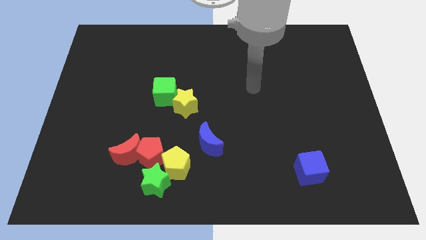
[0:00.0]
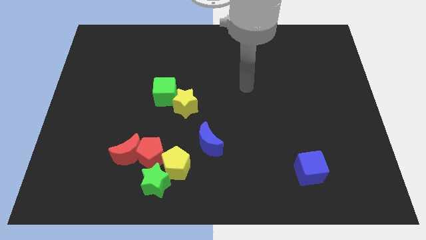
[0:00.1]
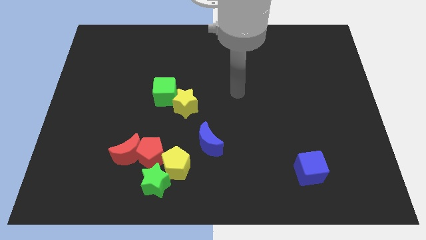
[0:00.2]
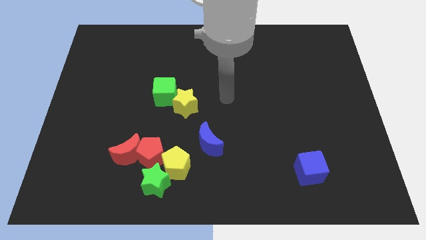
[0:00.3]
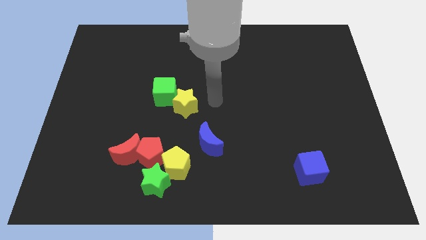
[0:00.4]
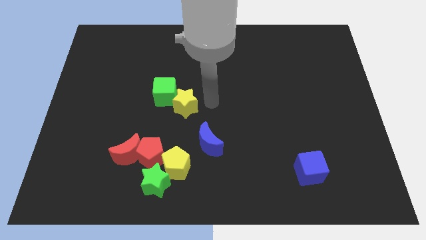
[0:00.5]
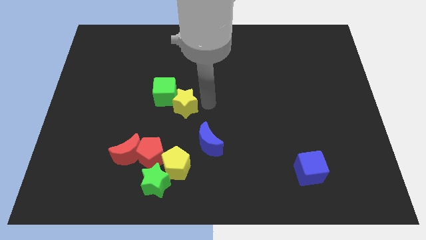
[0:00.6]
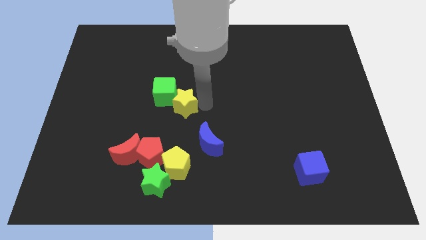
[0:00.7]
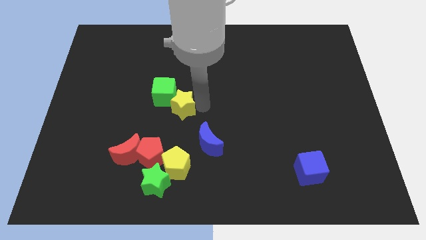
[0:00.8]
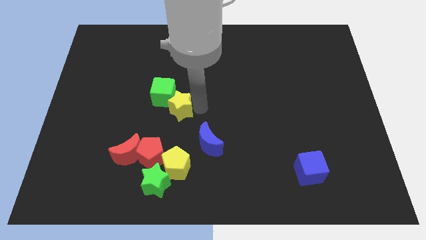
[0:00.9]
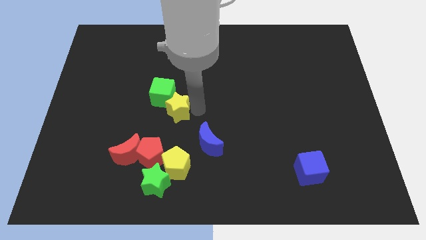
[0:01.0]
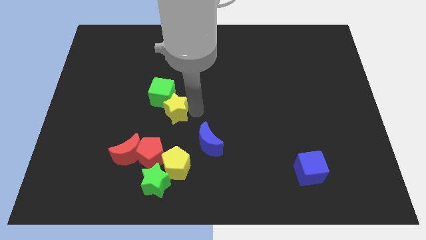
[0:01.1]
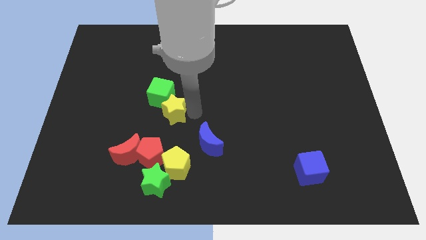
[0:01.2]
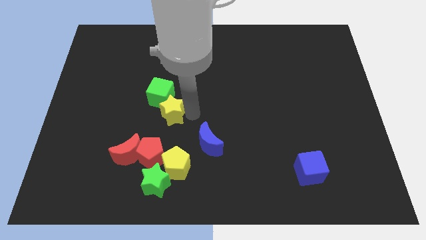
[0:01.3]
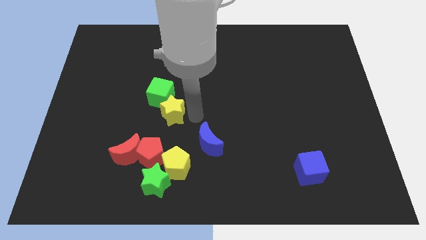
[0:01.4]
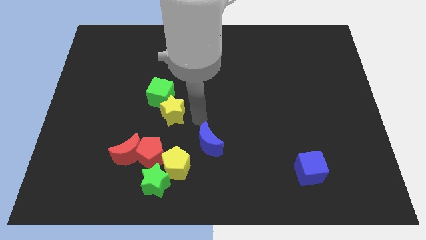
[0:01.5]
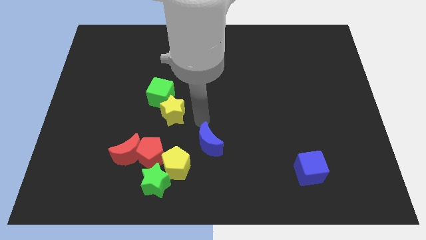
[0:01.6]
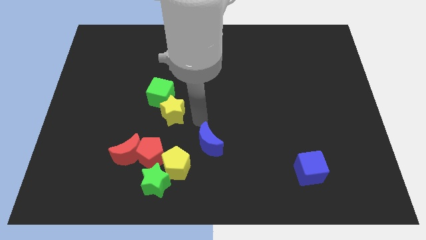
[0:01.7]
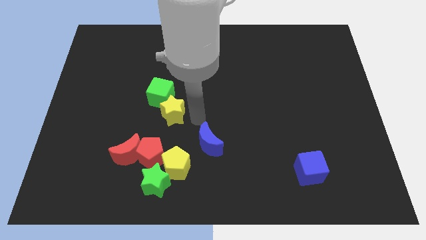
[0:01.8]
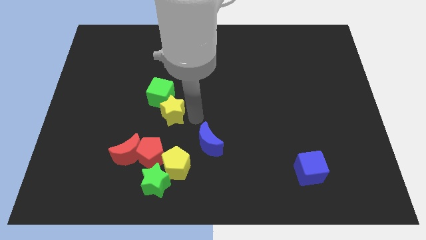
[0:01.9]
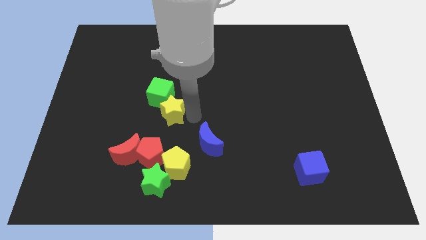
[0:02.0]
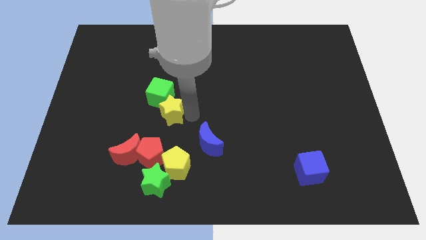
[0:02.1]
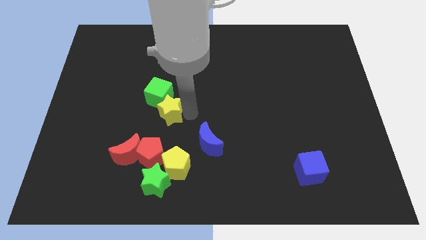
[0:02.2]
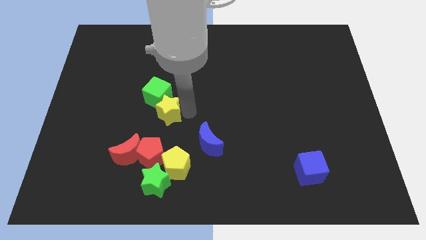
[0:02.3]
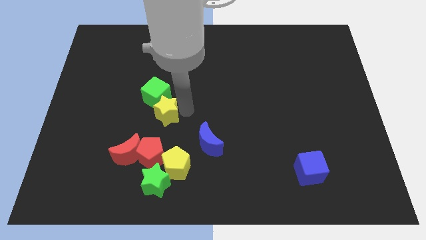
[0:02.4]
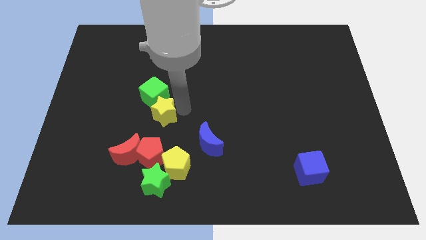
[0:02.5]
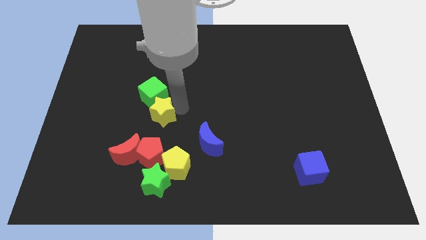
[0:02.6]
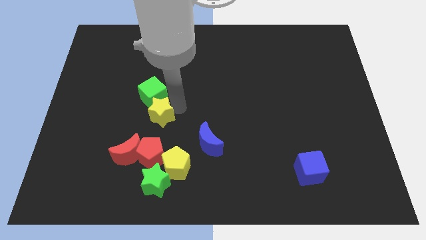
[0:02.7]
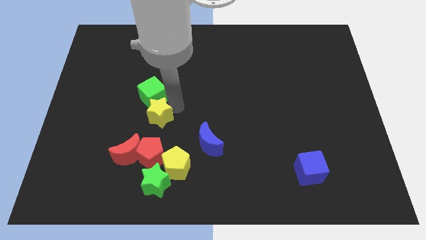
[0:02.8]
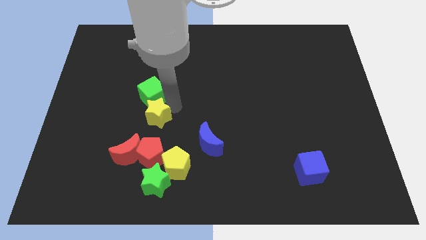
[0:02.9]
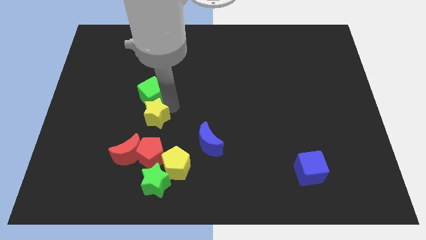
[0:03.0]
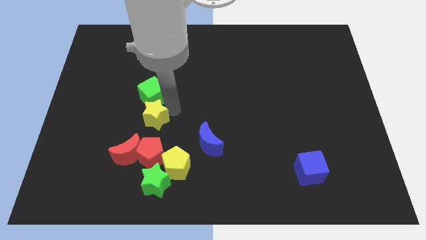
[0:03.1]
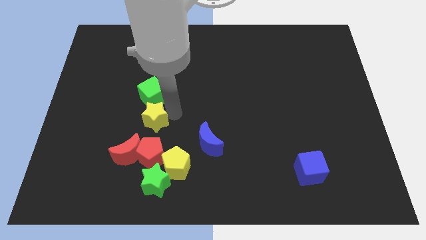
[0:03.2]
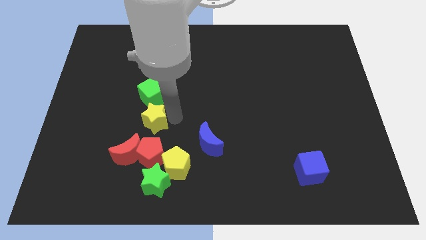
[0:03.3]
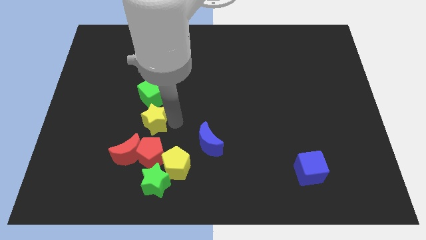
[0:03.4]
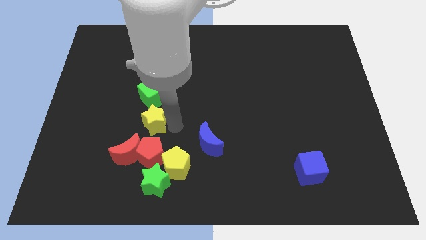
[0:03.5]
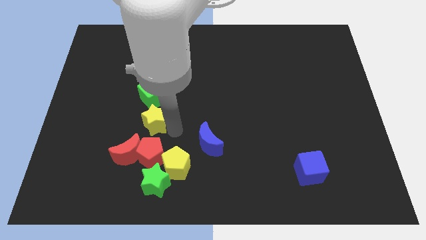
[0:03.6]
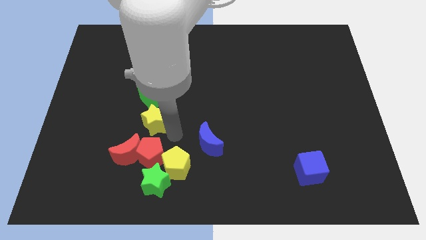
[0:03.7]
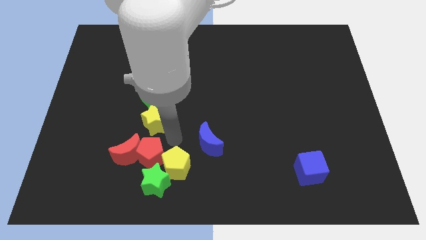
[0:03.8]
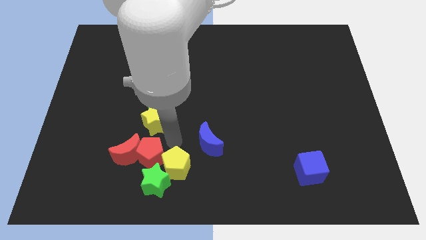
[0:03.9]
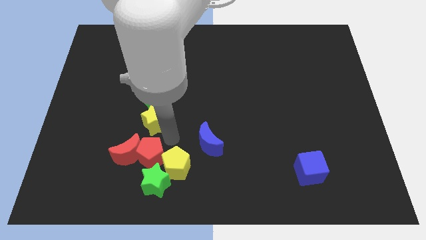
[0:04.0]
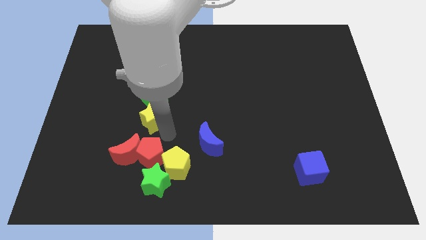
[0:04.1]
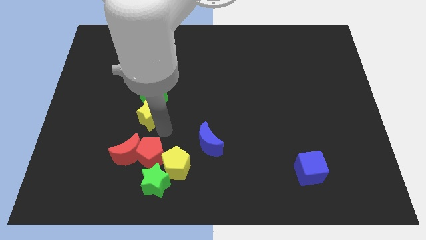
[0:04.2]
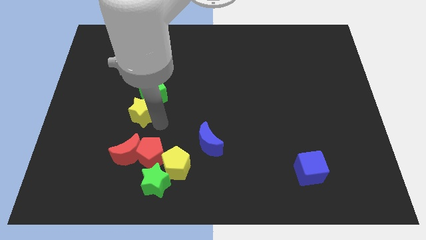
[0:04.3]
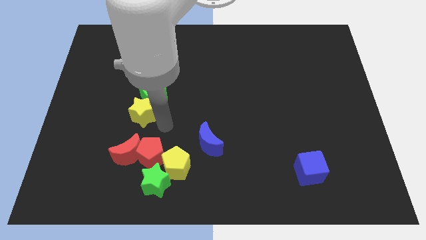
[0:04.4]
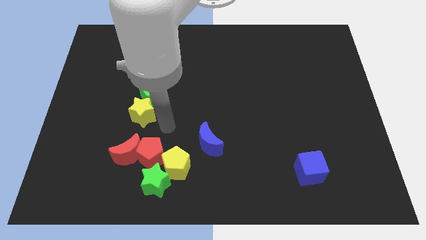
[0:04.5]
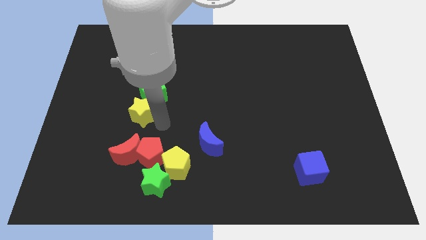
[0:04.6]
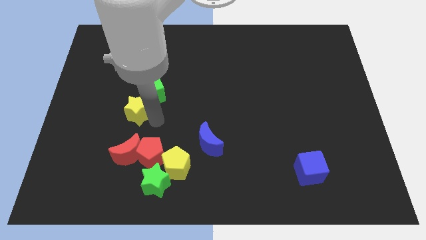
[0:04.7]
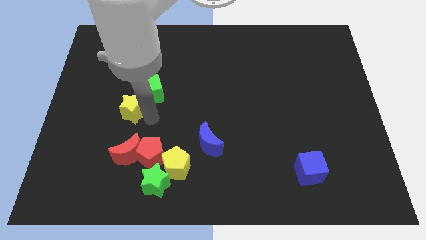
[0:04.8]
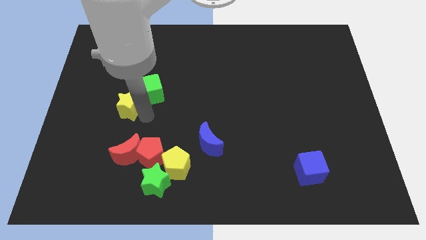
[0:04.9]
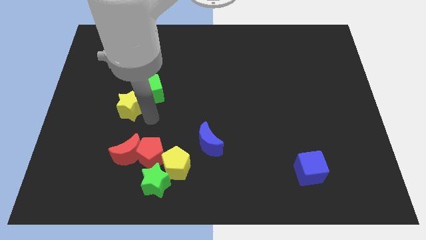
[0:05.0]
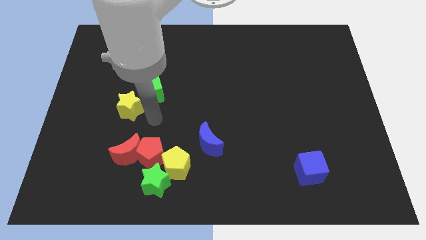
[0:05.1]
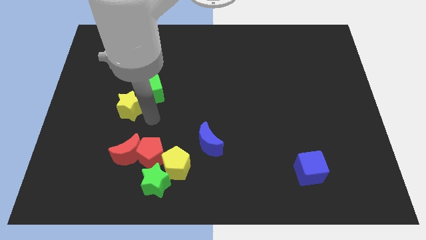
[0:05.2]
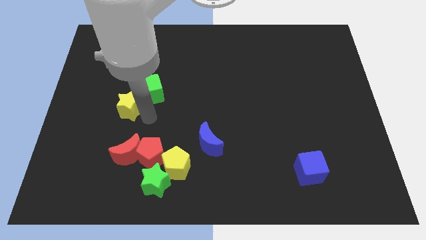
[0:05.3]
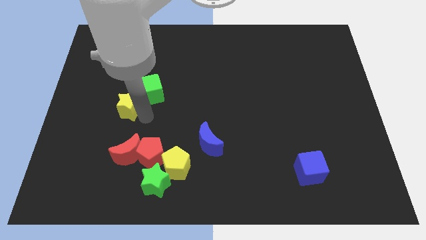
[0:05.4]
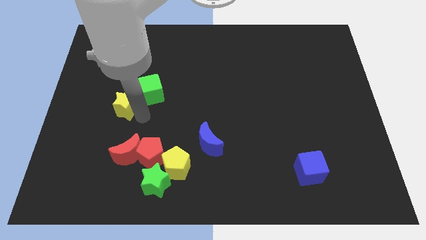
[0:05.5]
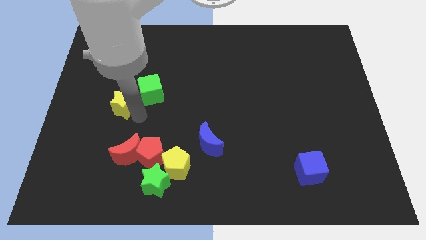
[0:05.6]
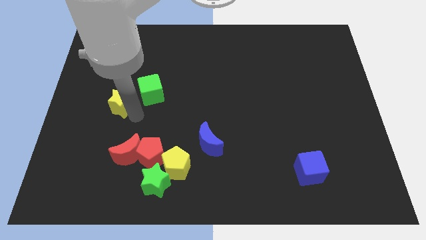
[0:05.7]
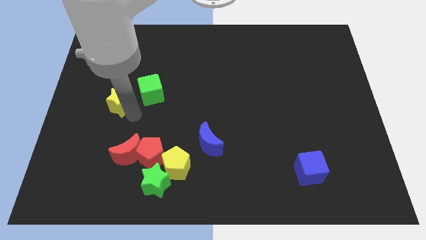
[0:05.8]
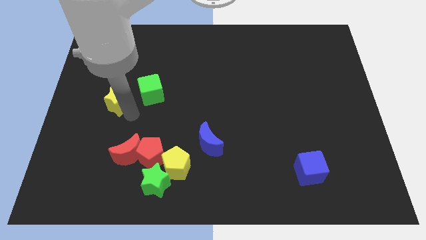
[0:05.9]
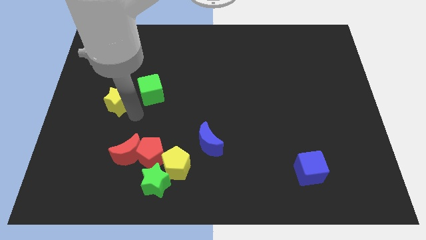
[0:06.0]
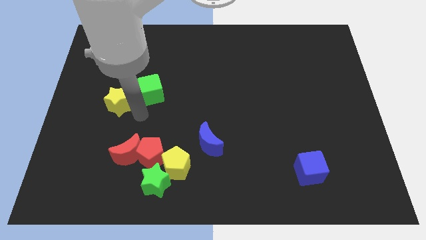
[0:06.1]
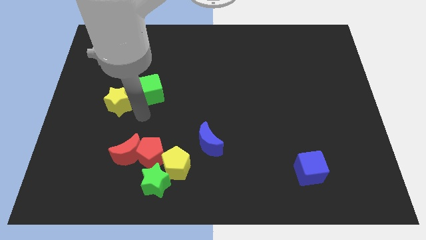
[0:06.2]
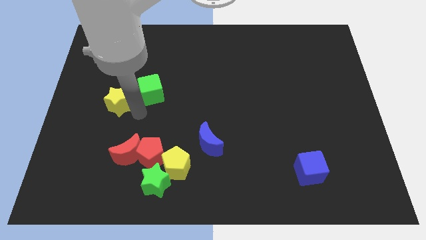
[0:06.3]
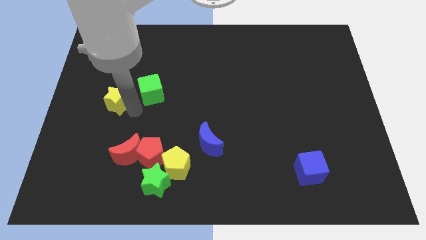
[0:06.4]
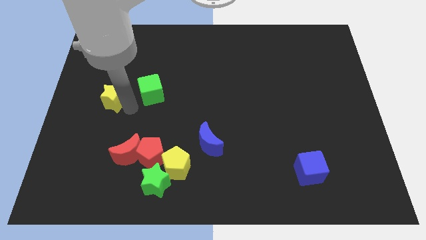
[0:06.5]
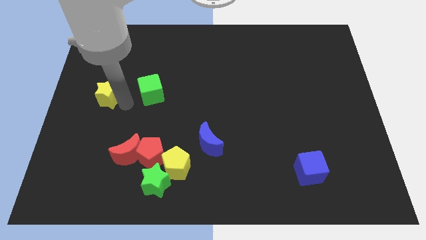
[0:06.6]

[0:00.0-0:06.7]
move the yellow star to the left side of the board
